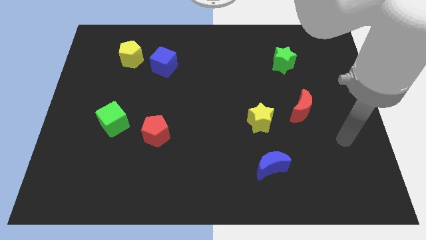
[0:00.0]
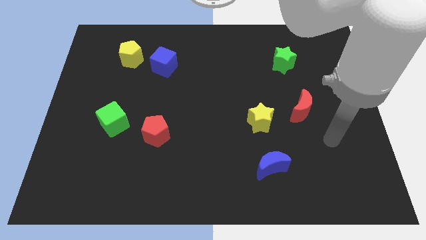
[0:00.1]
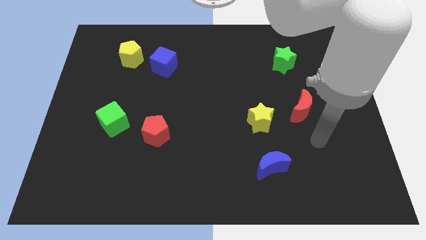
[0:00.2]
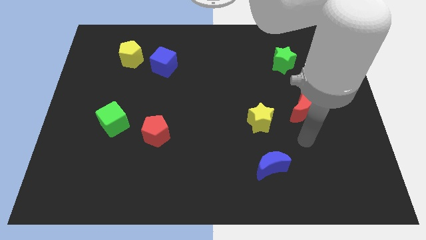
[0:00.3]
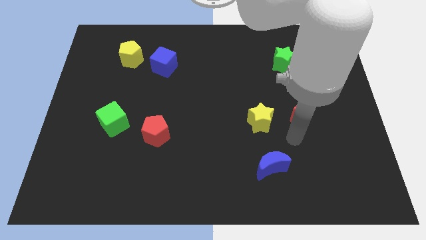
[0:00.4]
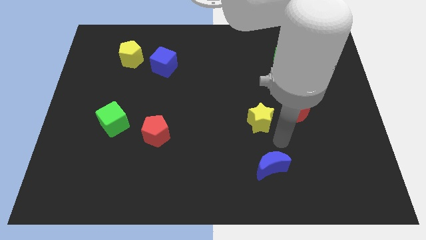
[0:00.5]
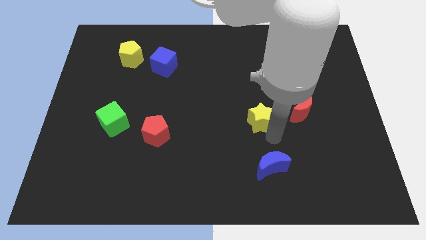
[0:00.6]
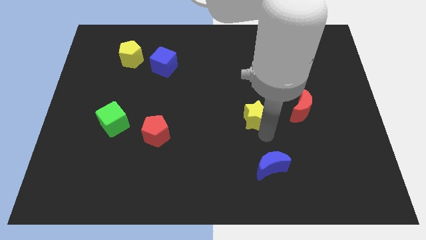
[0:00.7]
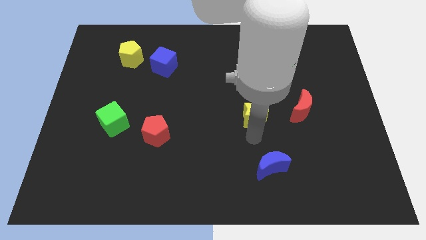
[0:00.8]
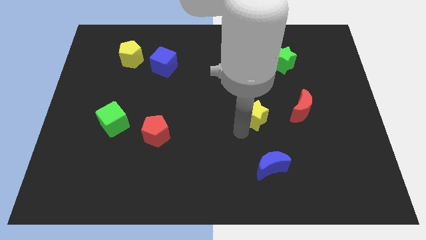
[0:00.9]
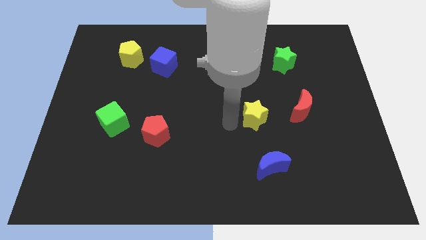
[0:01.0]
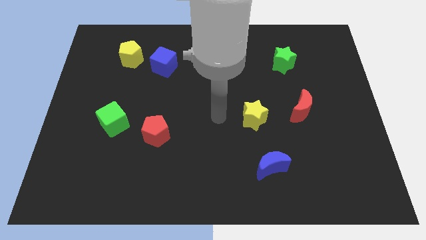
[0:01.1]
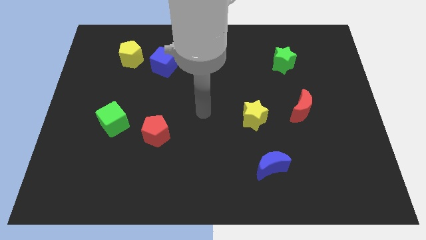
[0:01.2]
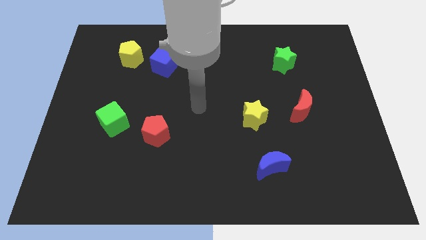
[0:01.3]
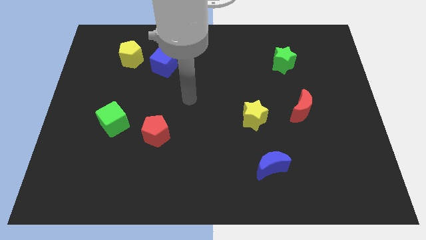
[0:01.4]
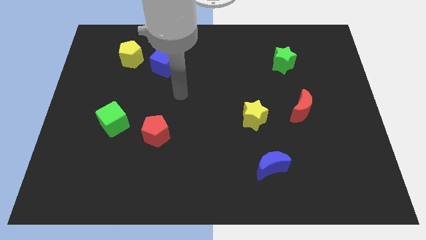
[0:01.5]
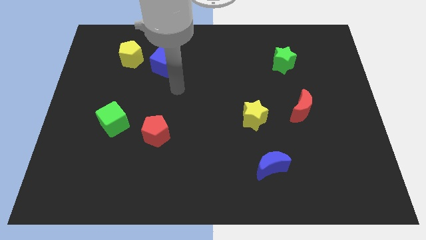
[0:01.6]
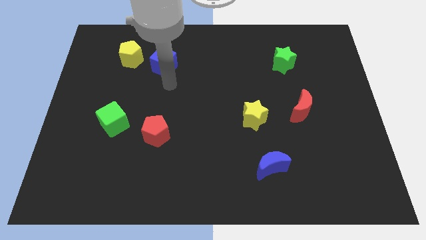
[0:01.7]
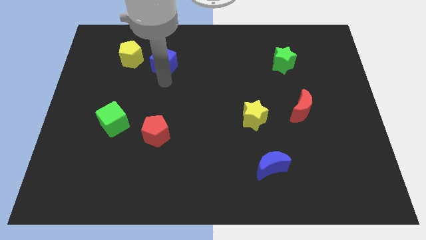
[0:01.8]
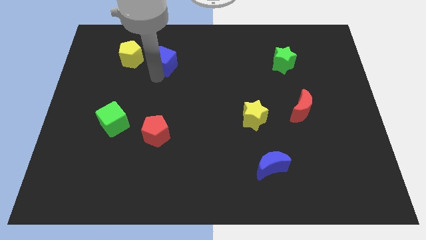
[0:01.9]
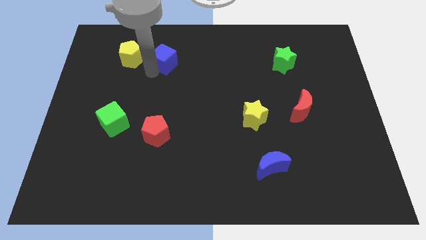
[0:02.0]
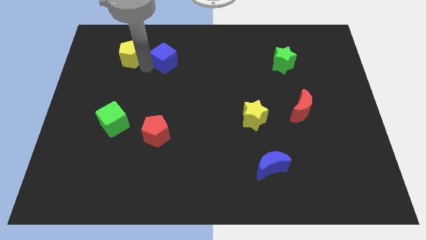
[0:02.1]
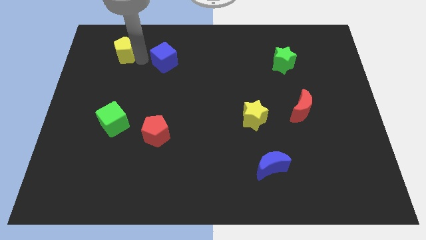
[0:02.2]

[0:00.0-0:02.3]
pull the blue cube apart from the yellow pentagon

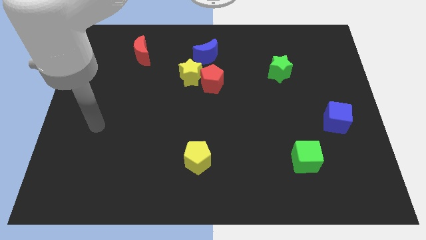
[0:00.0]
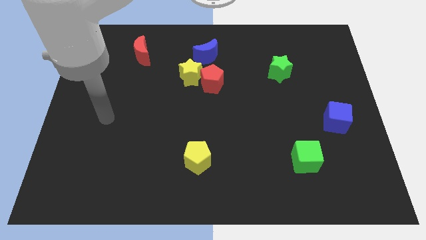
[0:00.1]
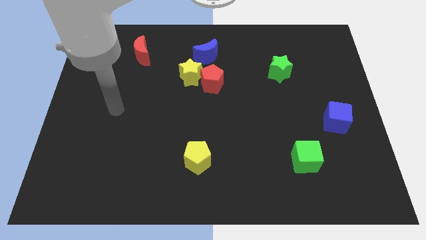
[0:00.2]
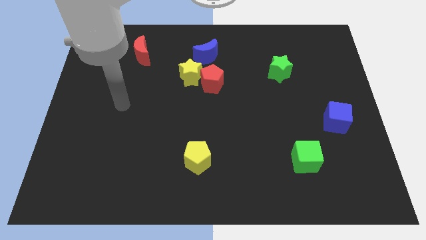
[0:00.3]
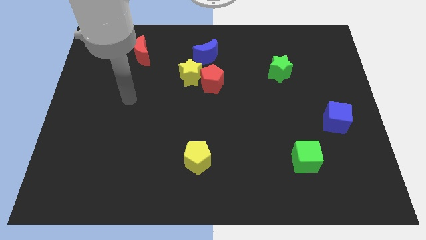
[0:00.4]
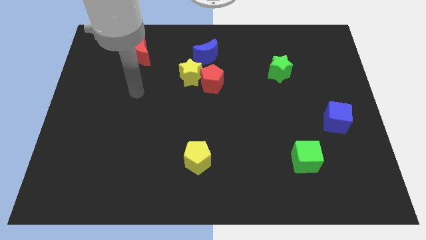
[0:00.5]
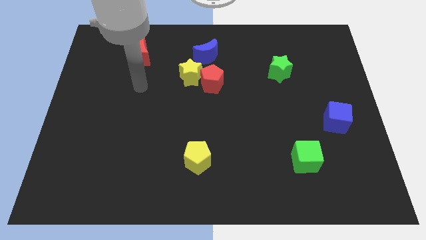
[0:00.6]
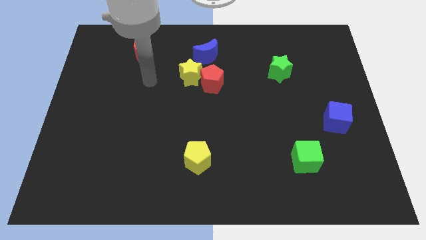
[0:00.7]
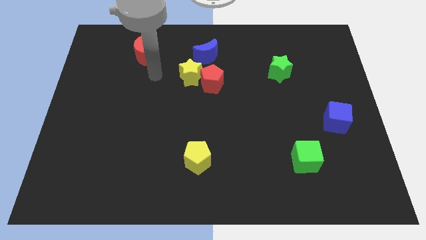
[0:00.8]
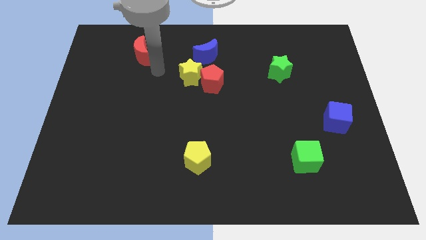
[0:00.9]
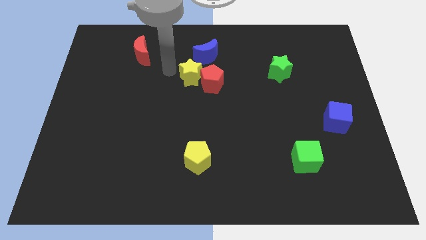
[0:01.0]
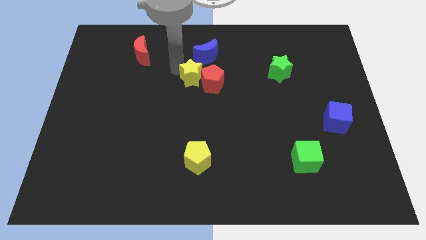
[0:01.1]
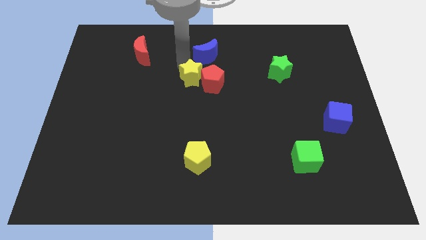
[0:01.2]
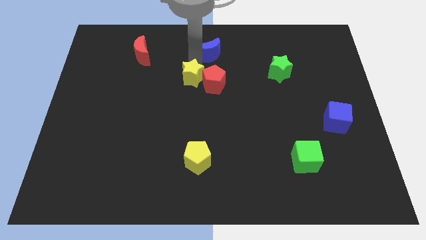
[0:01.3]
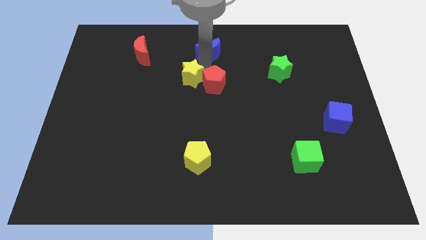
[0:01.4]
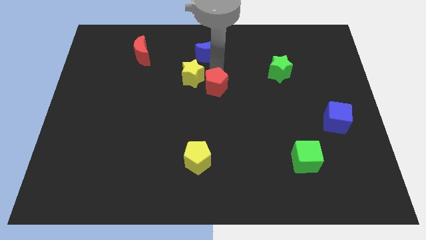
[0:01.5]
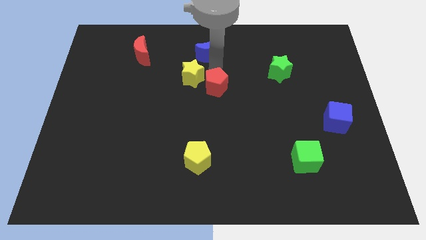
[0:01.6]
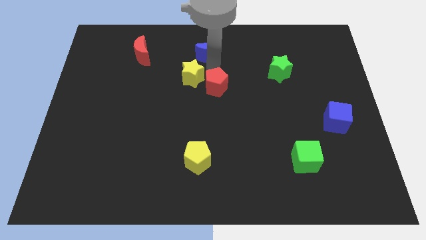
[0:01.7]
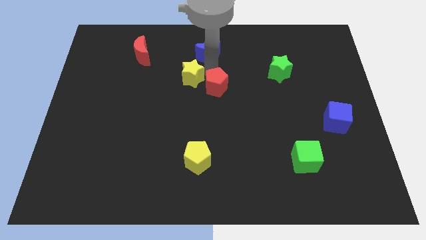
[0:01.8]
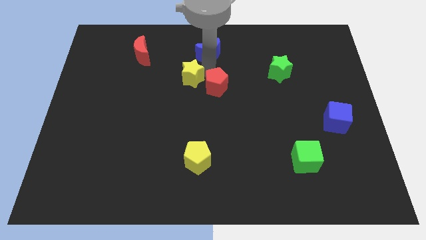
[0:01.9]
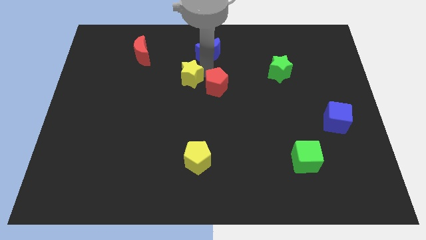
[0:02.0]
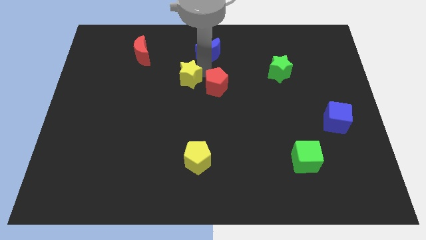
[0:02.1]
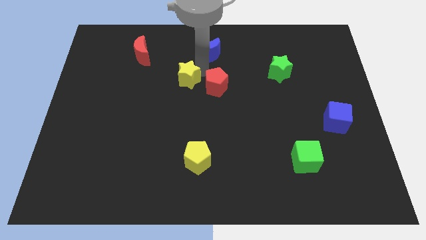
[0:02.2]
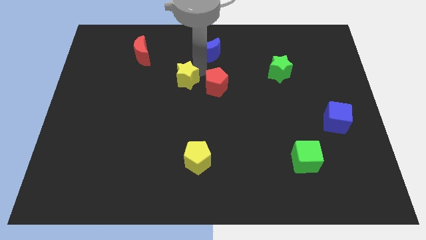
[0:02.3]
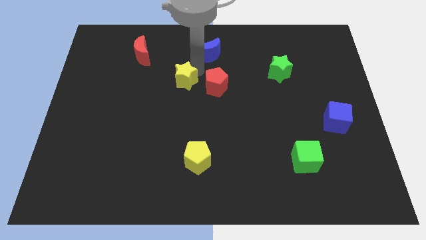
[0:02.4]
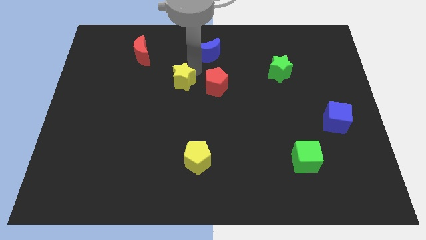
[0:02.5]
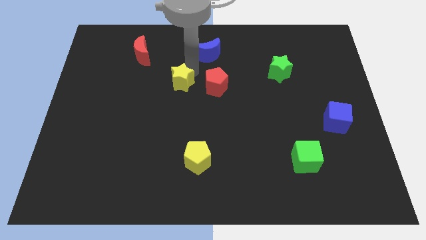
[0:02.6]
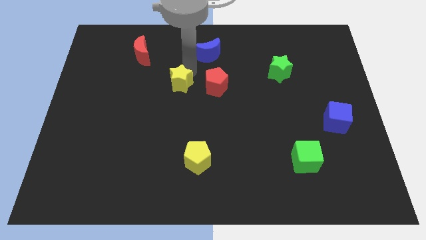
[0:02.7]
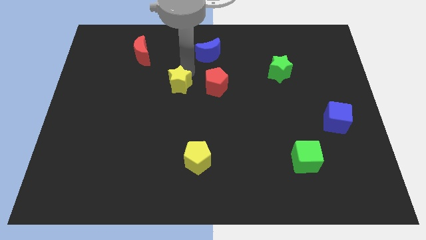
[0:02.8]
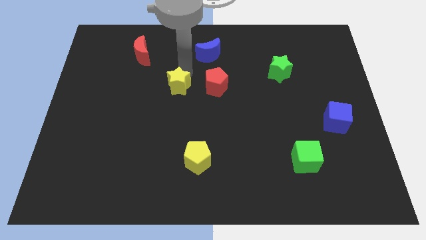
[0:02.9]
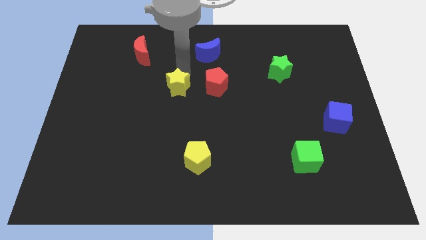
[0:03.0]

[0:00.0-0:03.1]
move the yellow star away from the red pentagon and blue moon

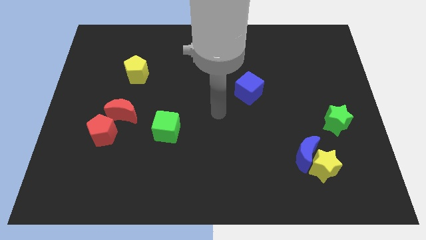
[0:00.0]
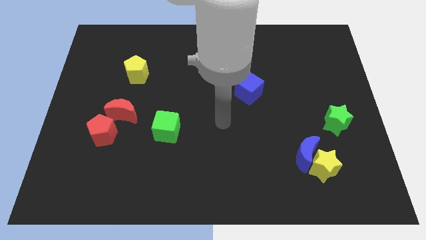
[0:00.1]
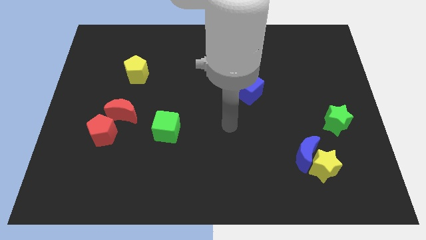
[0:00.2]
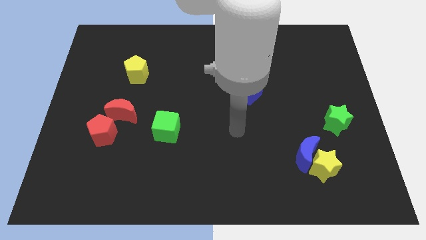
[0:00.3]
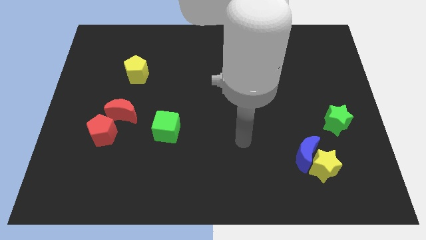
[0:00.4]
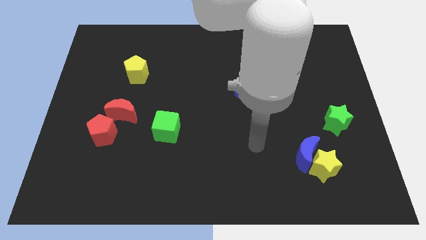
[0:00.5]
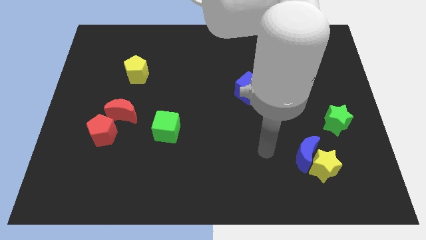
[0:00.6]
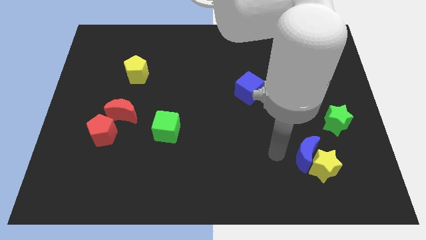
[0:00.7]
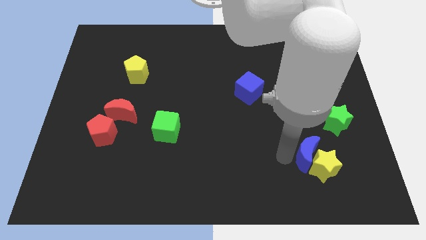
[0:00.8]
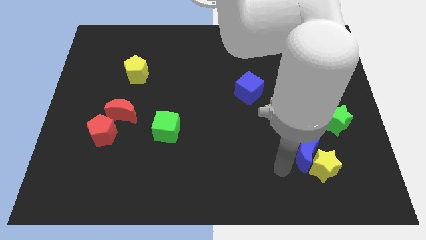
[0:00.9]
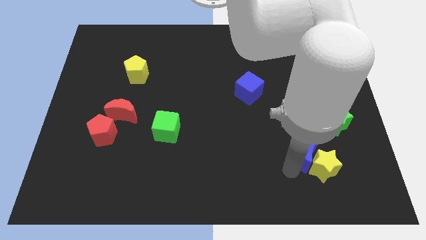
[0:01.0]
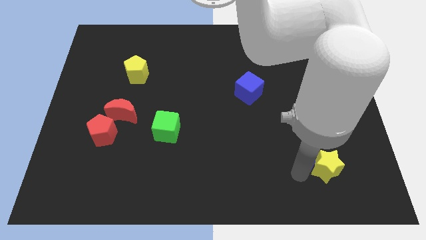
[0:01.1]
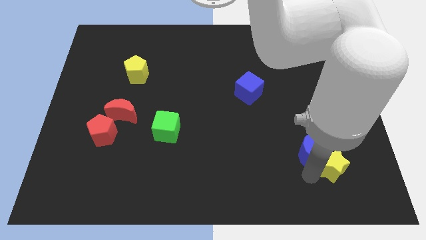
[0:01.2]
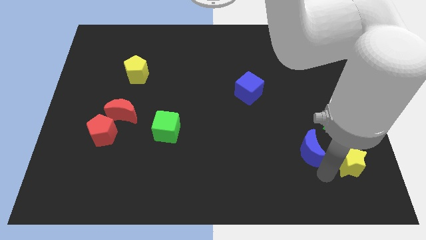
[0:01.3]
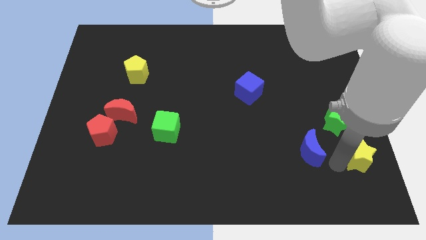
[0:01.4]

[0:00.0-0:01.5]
pull the blue moon apart from the yellow star

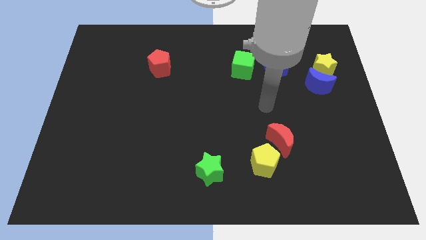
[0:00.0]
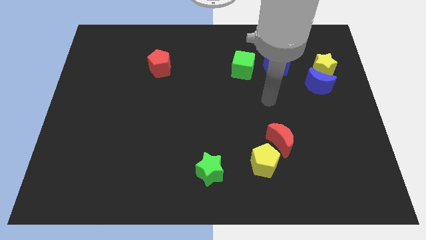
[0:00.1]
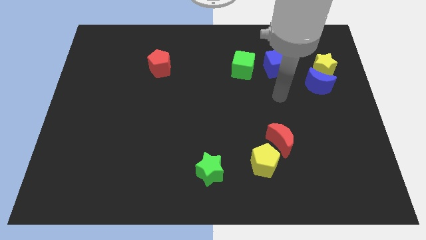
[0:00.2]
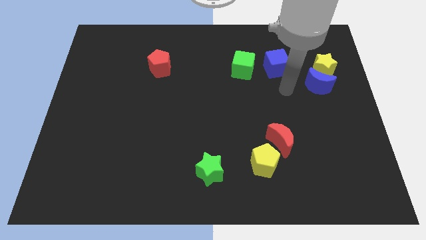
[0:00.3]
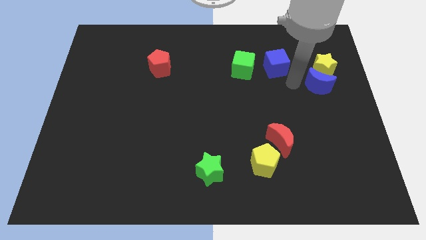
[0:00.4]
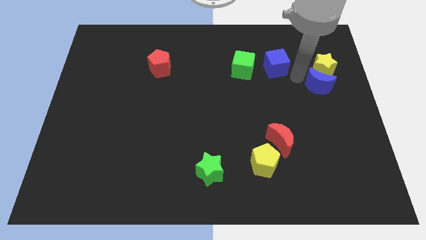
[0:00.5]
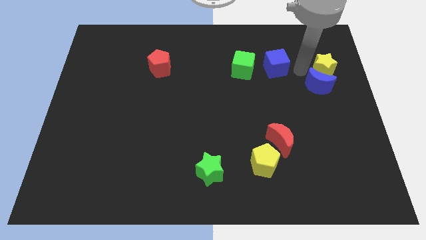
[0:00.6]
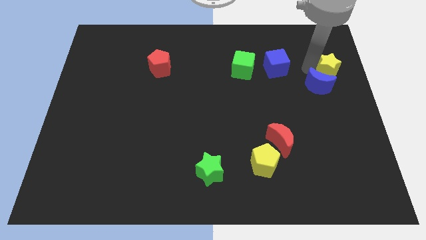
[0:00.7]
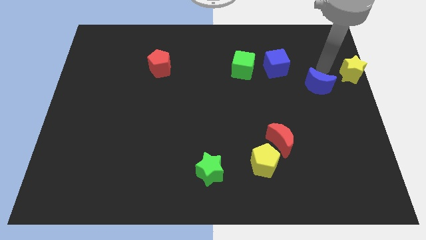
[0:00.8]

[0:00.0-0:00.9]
move the blue moon away from the yellow star

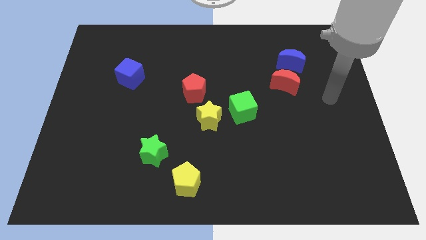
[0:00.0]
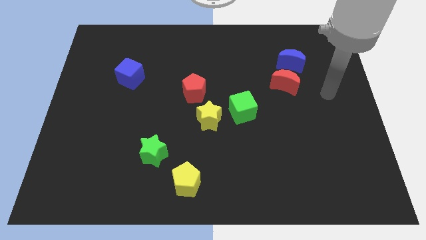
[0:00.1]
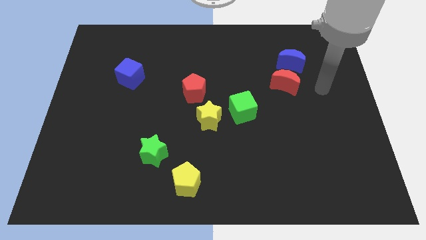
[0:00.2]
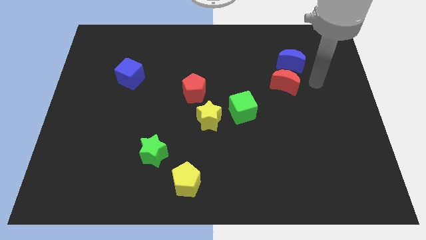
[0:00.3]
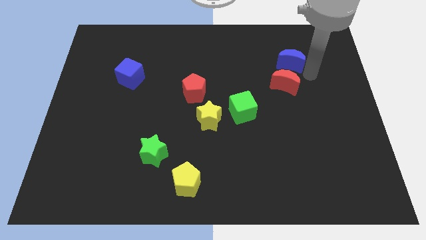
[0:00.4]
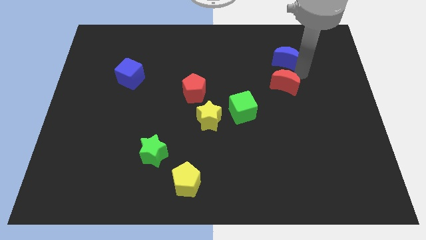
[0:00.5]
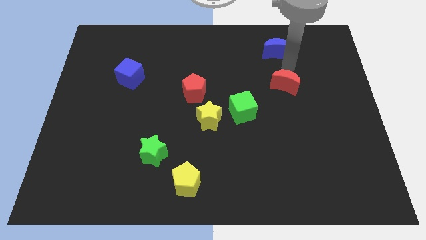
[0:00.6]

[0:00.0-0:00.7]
pull the red moon apart from the blue moon

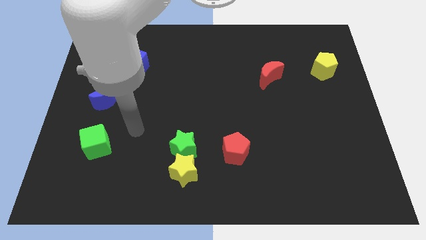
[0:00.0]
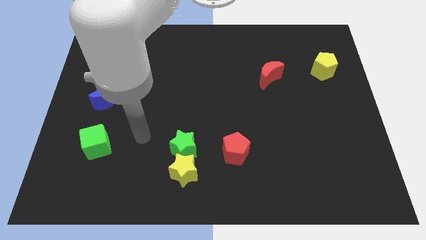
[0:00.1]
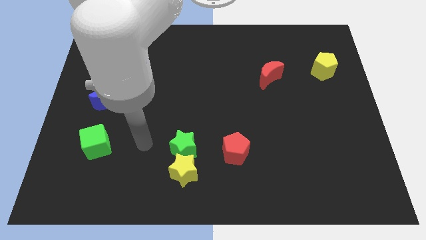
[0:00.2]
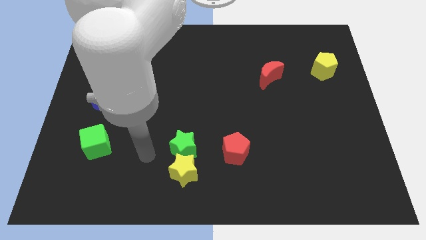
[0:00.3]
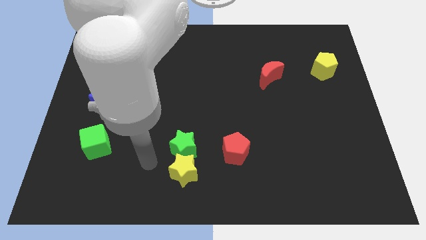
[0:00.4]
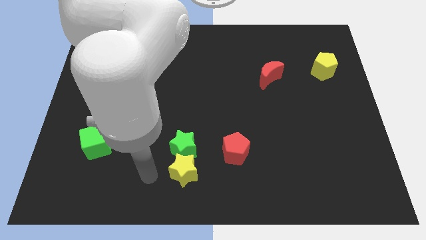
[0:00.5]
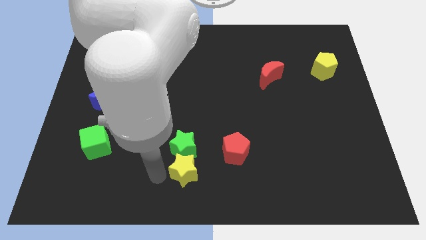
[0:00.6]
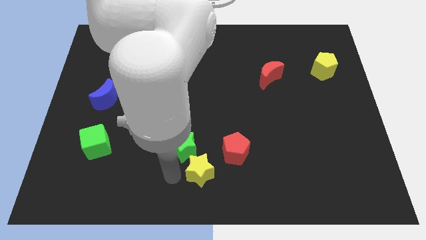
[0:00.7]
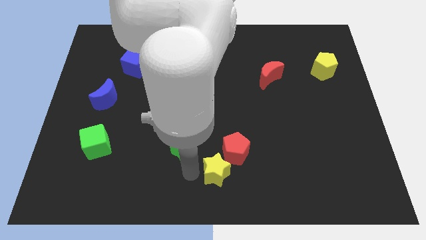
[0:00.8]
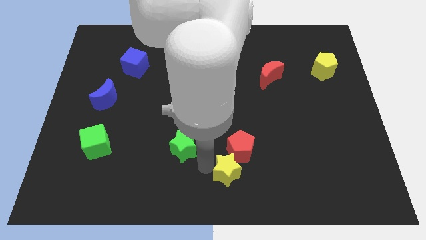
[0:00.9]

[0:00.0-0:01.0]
separate the green star from the yellow star
